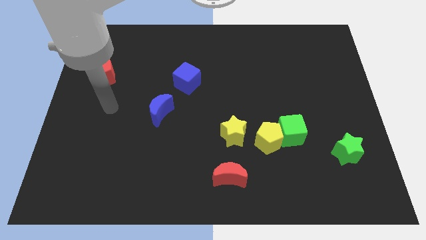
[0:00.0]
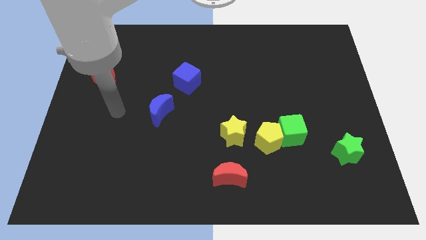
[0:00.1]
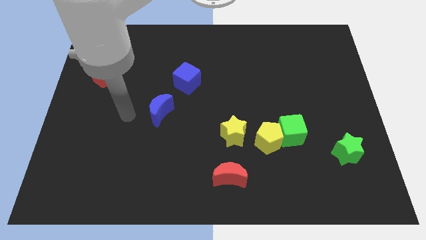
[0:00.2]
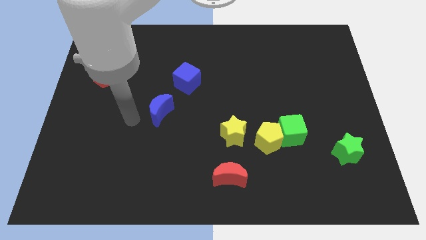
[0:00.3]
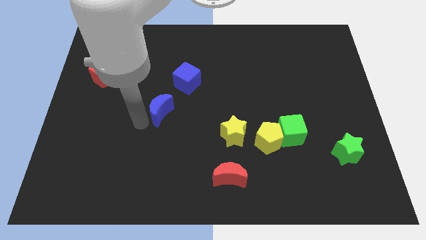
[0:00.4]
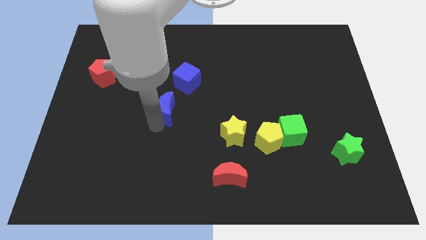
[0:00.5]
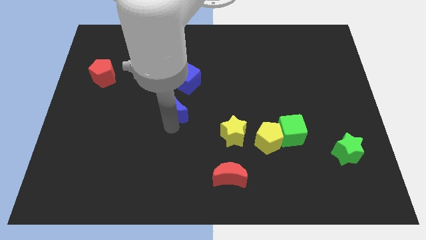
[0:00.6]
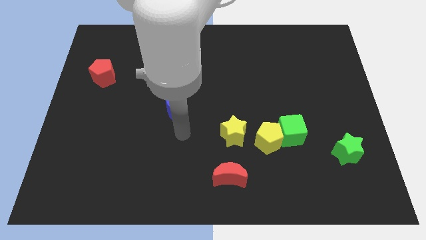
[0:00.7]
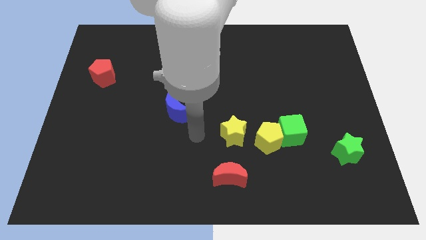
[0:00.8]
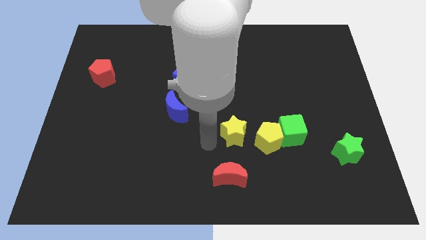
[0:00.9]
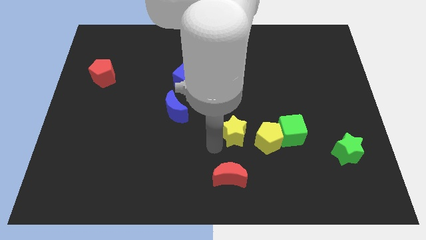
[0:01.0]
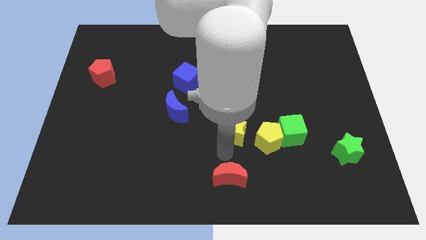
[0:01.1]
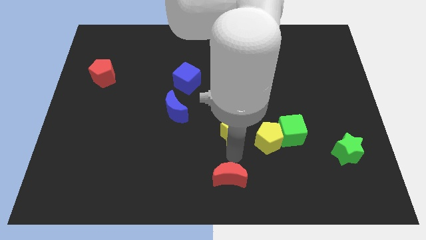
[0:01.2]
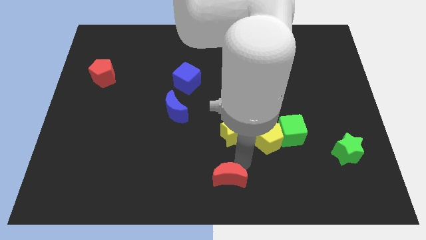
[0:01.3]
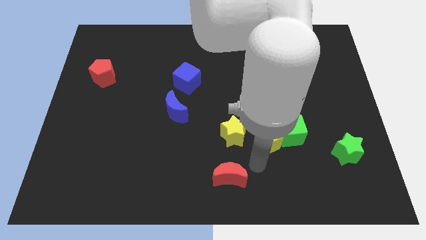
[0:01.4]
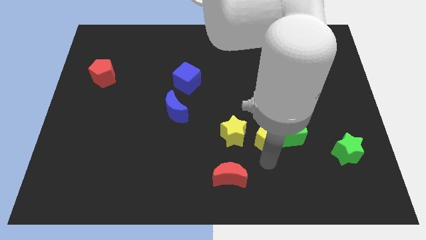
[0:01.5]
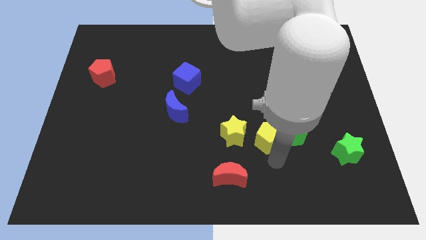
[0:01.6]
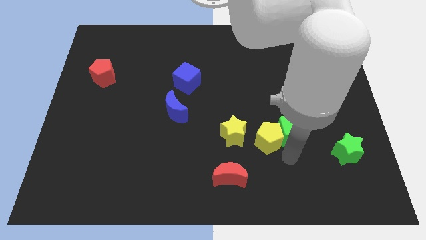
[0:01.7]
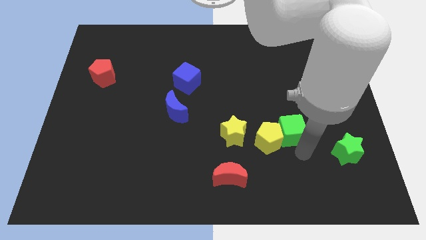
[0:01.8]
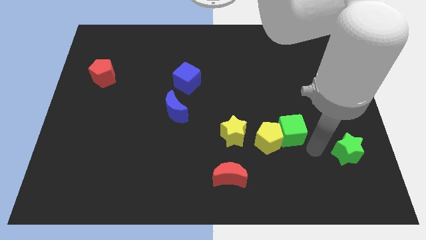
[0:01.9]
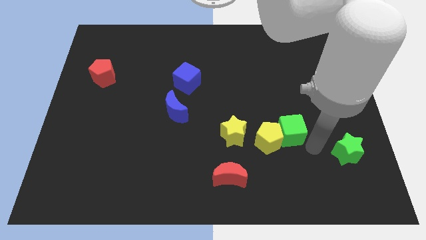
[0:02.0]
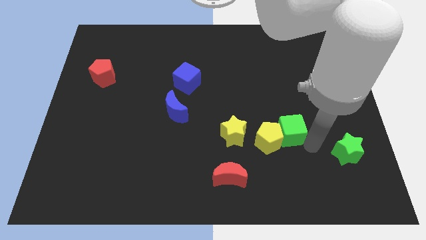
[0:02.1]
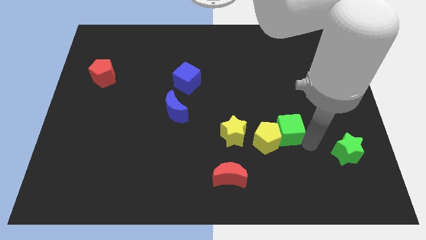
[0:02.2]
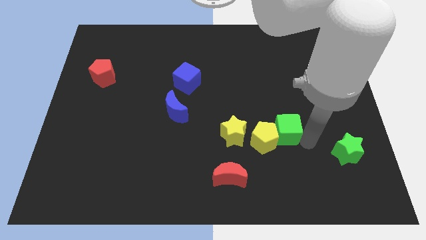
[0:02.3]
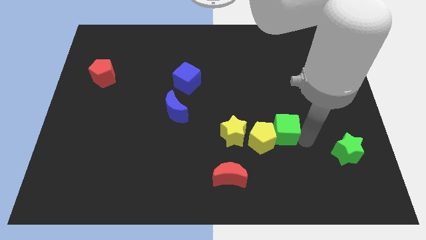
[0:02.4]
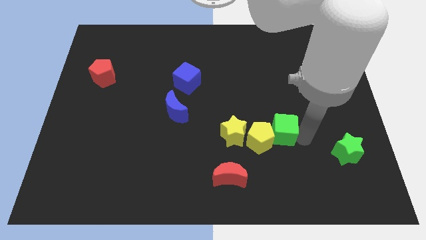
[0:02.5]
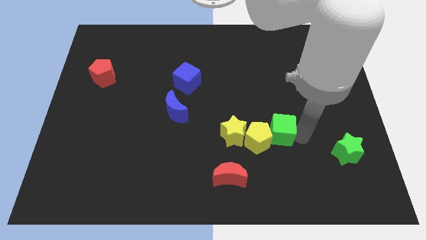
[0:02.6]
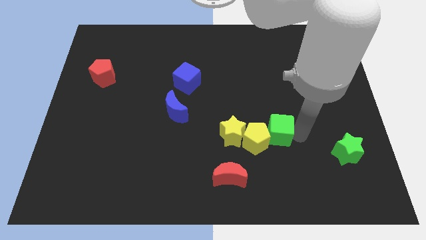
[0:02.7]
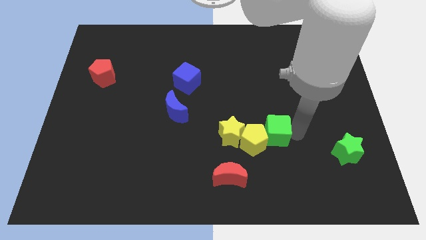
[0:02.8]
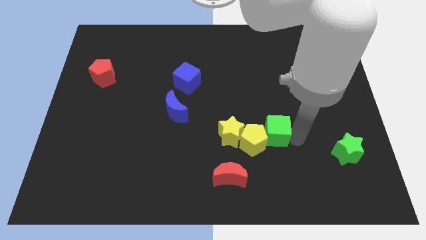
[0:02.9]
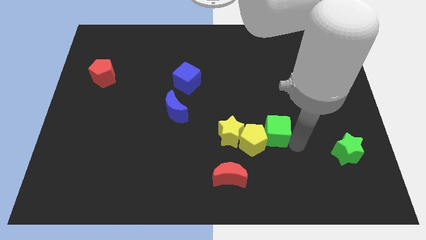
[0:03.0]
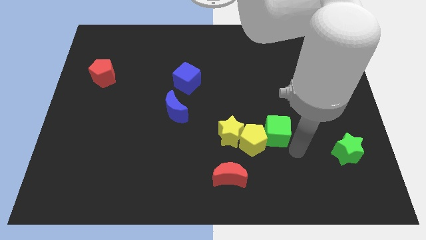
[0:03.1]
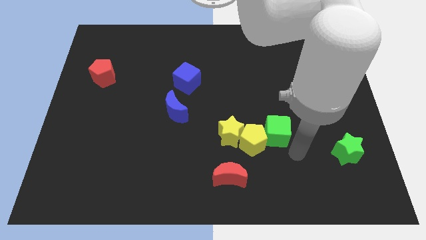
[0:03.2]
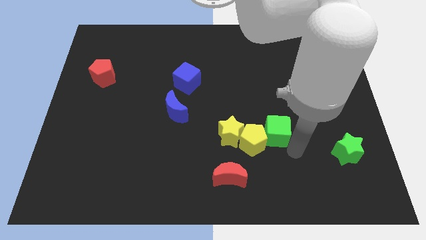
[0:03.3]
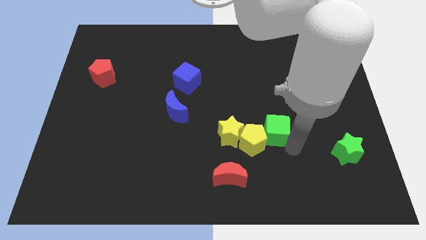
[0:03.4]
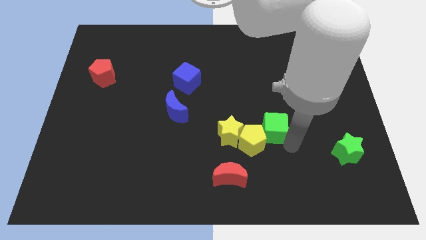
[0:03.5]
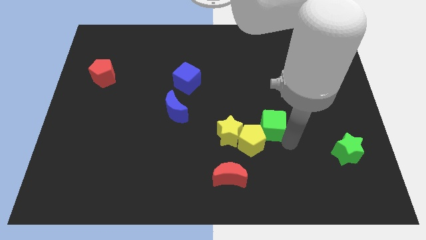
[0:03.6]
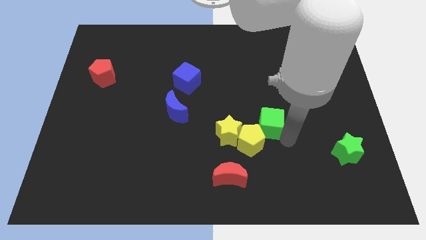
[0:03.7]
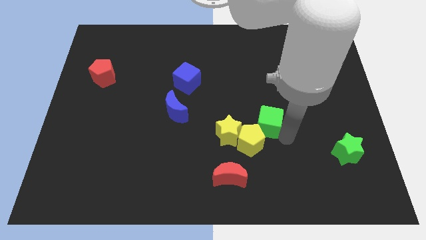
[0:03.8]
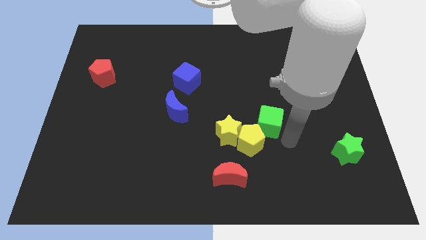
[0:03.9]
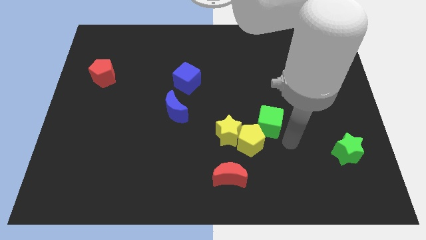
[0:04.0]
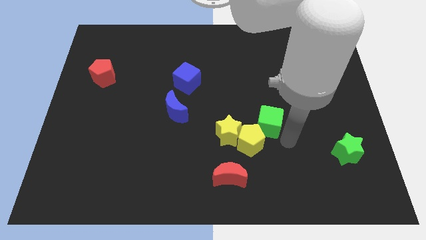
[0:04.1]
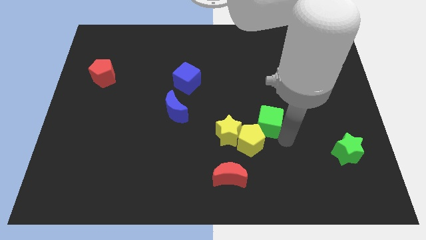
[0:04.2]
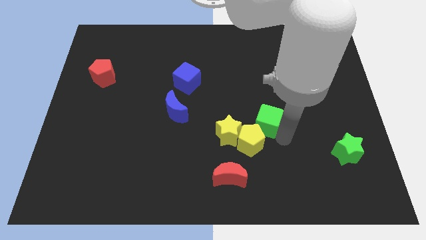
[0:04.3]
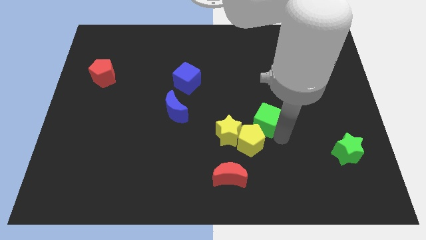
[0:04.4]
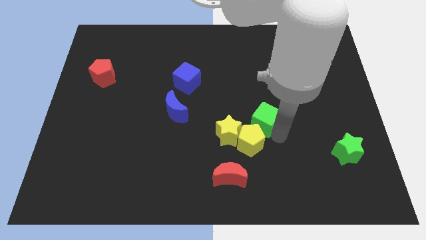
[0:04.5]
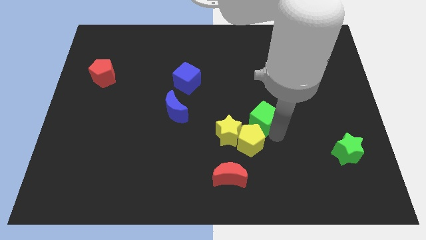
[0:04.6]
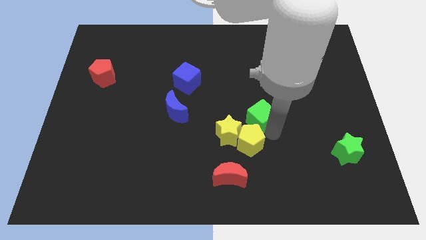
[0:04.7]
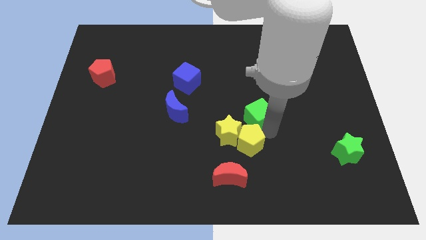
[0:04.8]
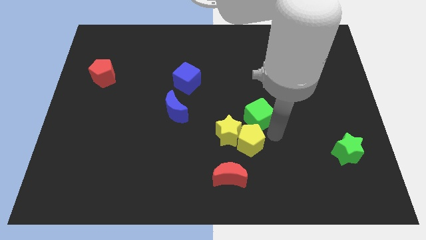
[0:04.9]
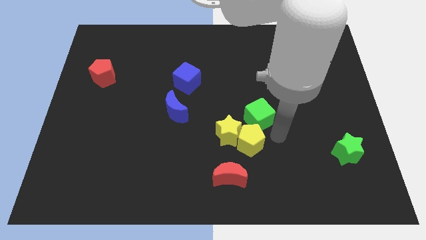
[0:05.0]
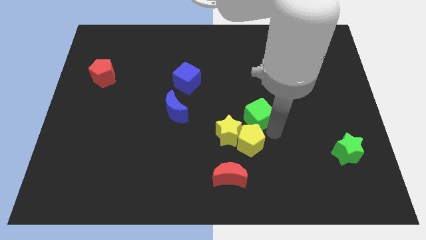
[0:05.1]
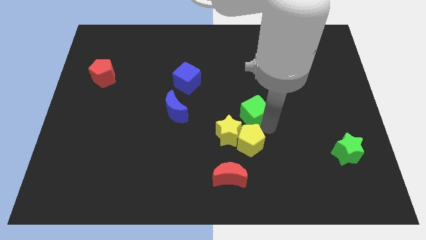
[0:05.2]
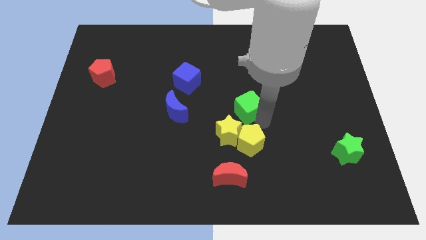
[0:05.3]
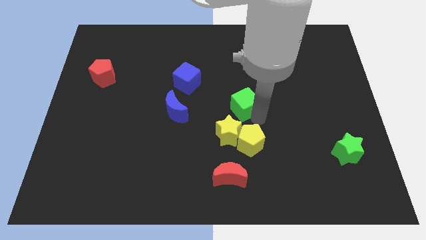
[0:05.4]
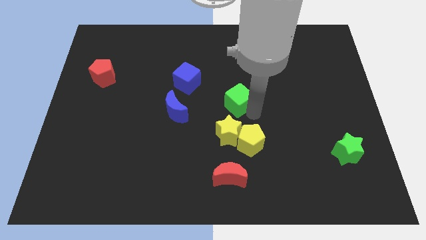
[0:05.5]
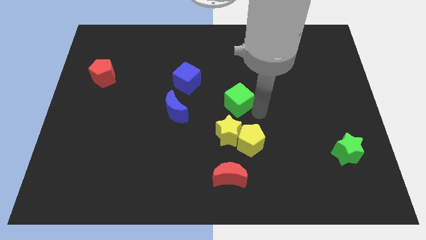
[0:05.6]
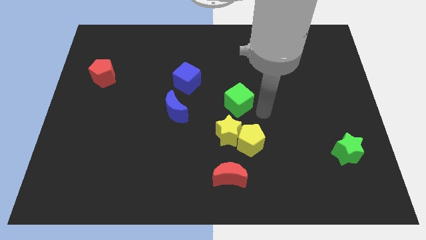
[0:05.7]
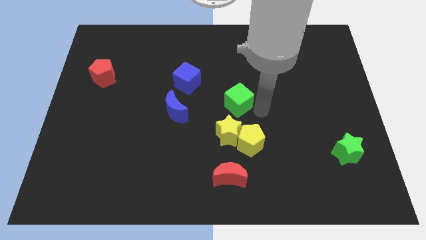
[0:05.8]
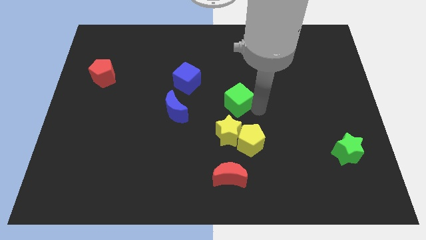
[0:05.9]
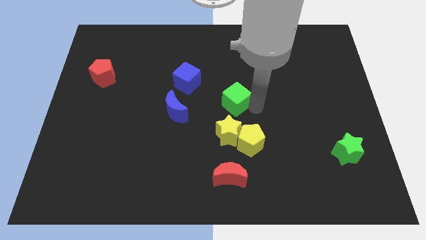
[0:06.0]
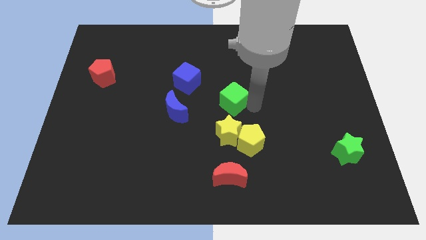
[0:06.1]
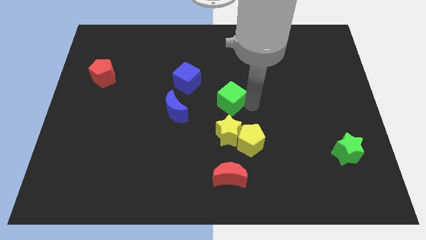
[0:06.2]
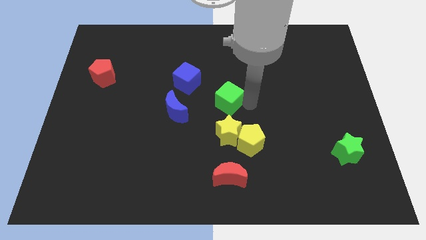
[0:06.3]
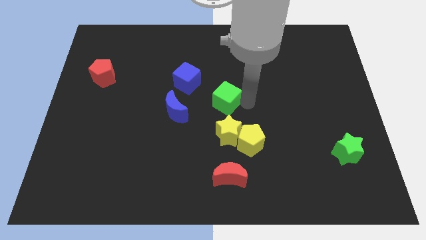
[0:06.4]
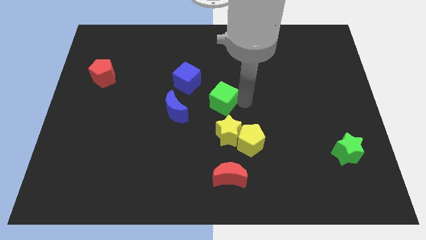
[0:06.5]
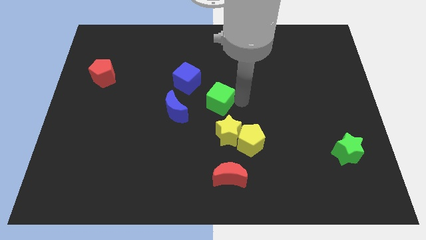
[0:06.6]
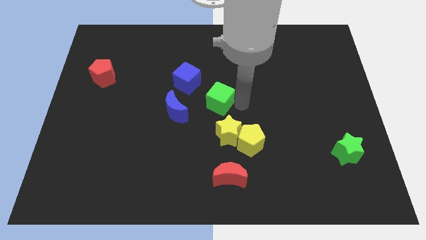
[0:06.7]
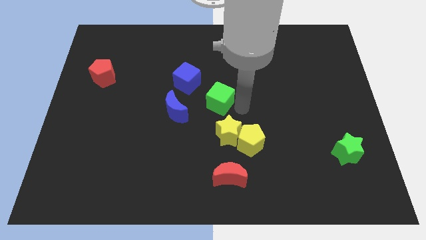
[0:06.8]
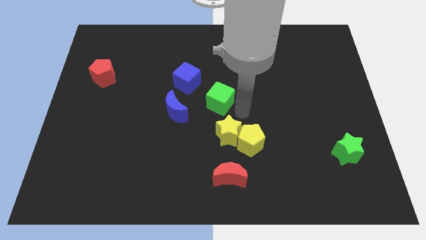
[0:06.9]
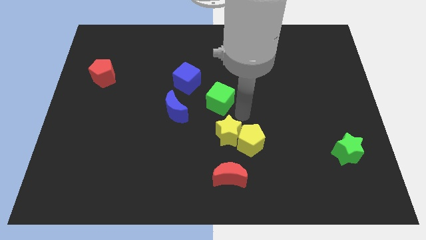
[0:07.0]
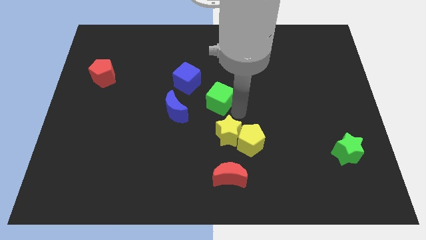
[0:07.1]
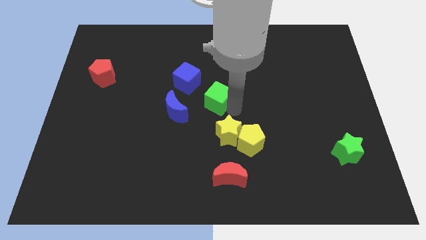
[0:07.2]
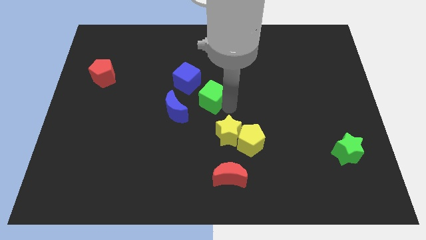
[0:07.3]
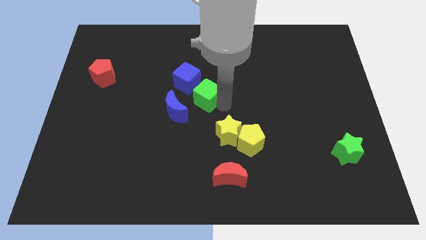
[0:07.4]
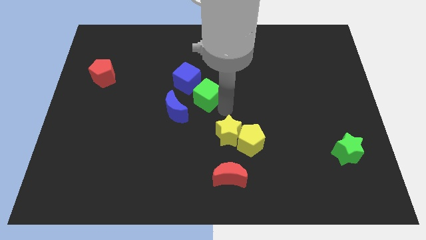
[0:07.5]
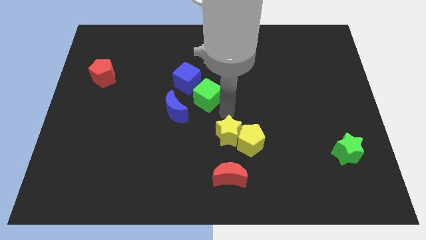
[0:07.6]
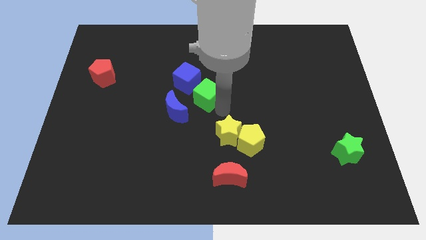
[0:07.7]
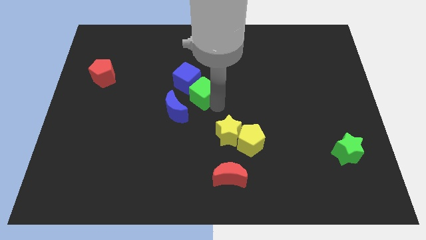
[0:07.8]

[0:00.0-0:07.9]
push the green cube next to the blue cube
